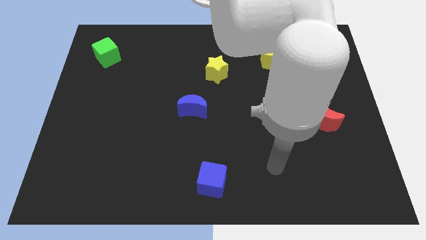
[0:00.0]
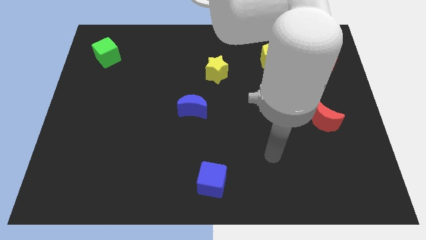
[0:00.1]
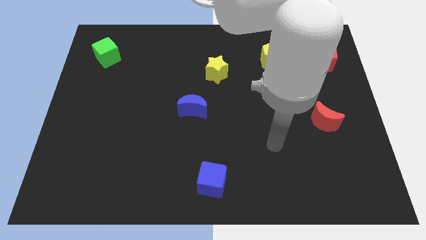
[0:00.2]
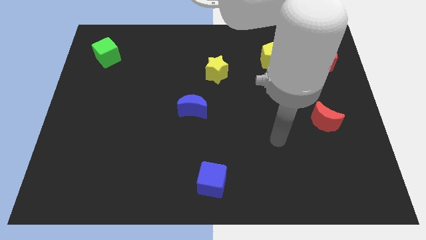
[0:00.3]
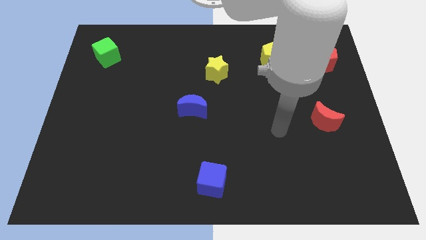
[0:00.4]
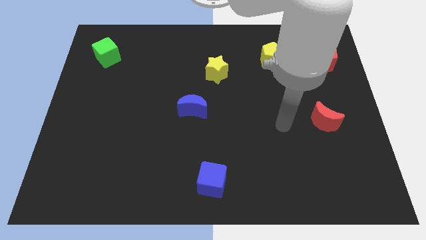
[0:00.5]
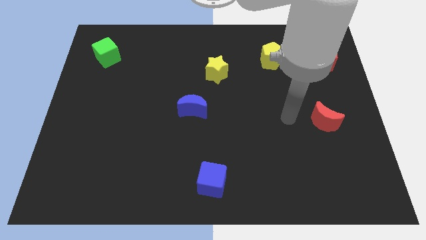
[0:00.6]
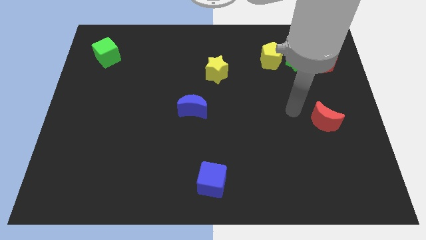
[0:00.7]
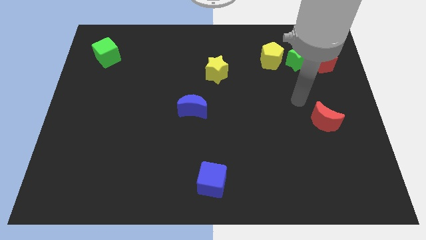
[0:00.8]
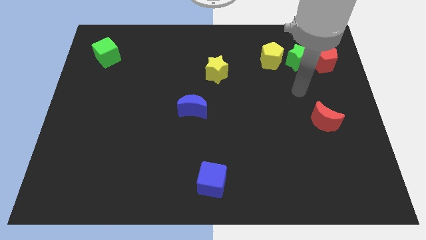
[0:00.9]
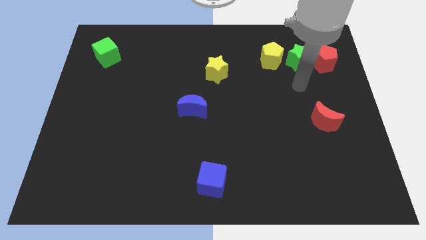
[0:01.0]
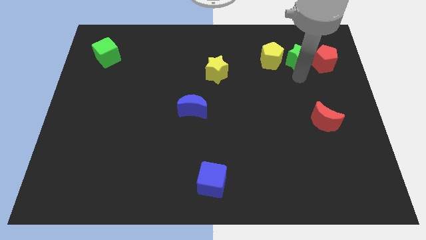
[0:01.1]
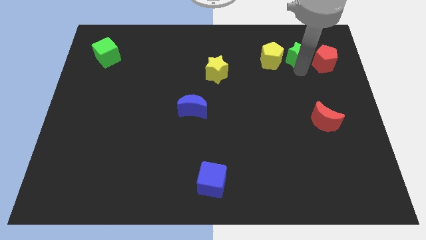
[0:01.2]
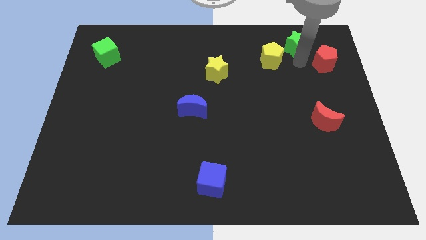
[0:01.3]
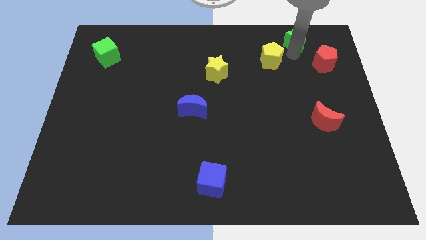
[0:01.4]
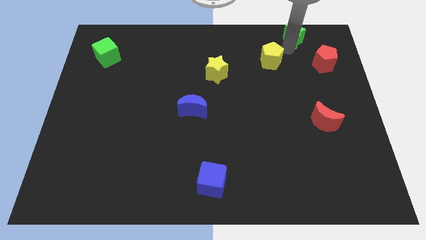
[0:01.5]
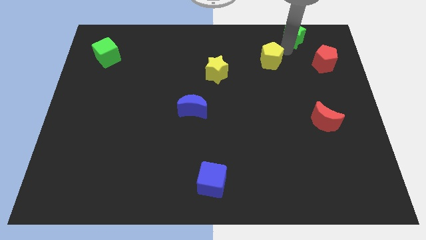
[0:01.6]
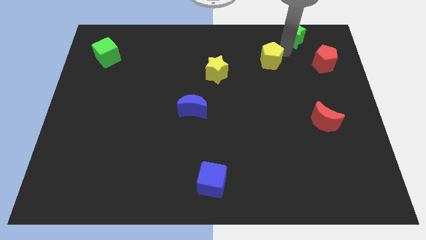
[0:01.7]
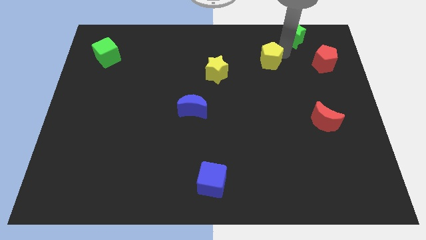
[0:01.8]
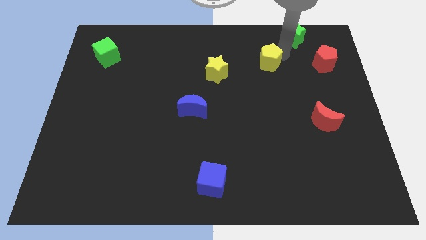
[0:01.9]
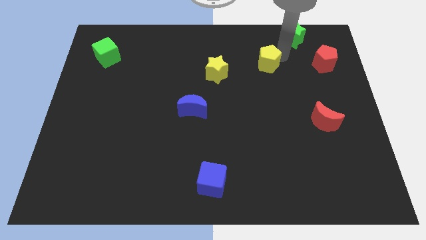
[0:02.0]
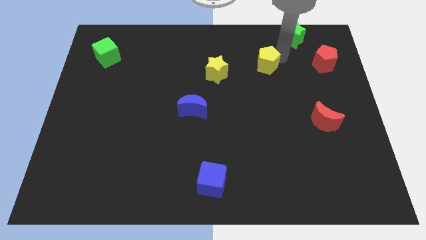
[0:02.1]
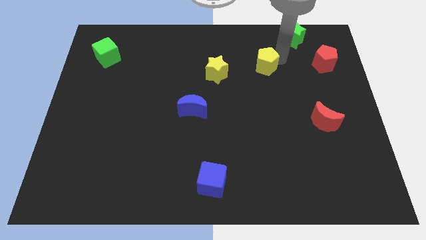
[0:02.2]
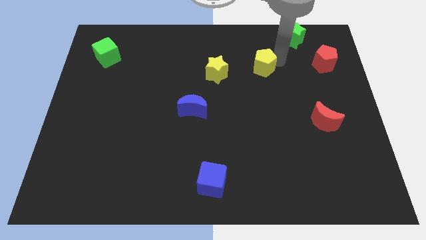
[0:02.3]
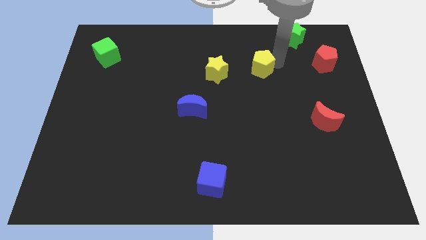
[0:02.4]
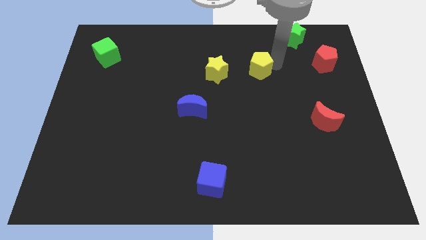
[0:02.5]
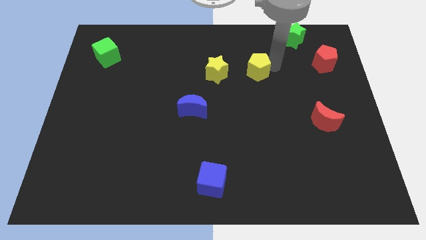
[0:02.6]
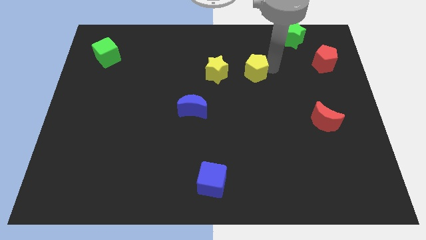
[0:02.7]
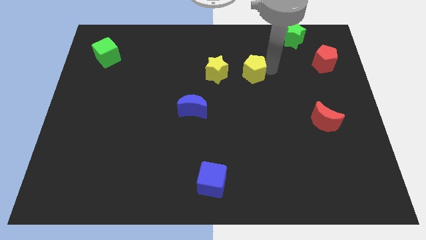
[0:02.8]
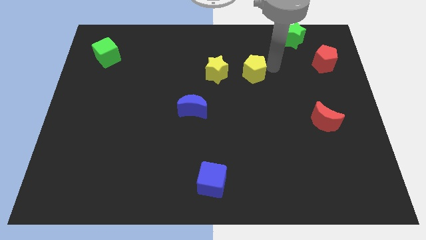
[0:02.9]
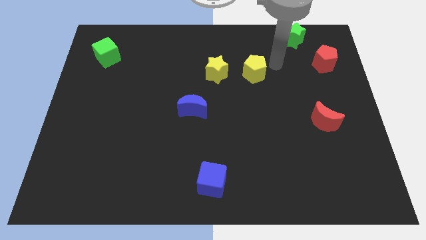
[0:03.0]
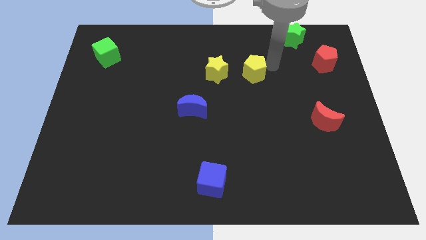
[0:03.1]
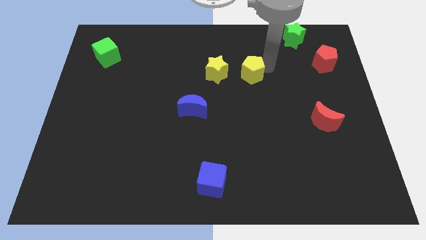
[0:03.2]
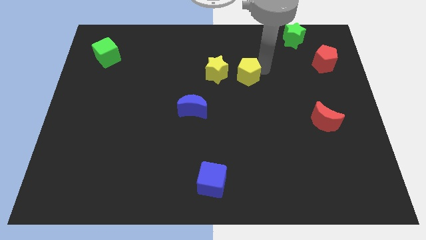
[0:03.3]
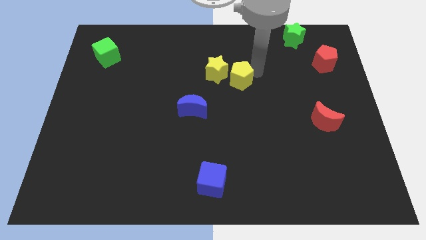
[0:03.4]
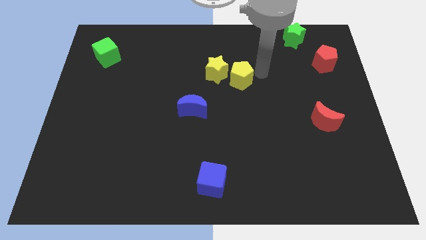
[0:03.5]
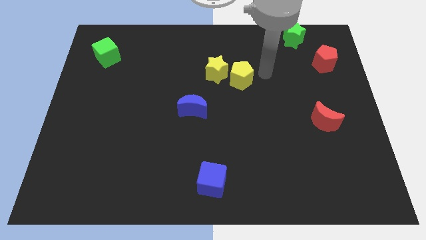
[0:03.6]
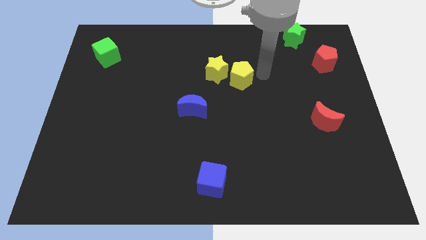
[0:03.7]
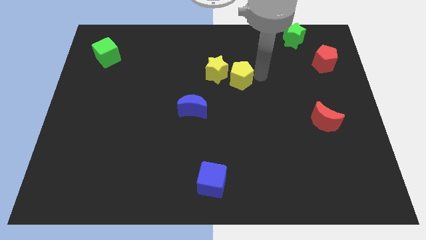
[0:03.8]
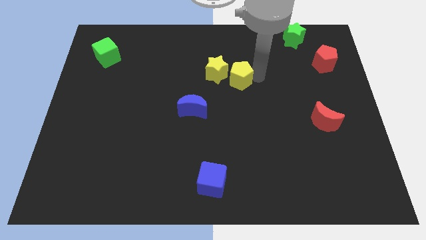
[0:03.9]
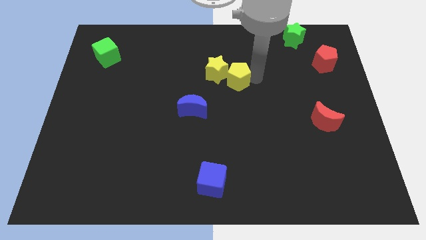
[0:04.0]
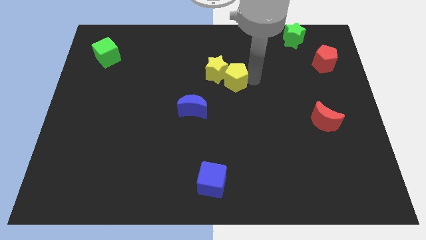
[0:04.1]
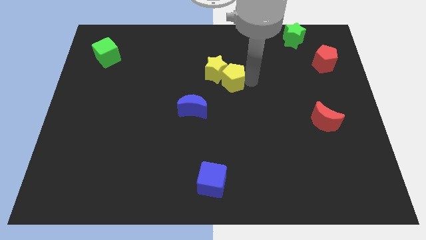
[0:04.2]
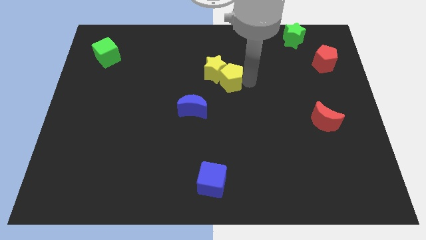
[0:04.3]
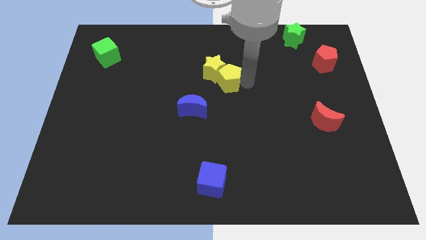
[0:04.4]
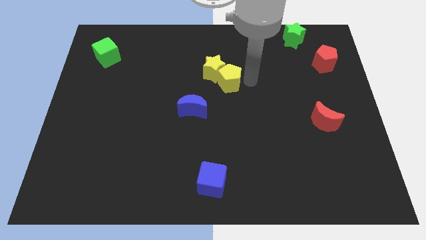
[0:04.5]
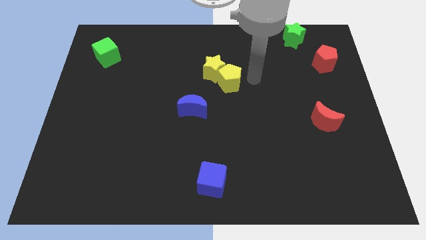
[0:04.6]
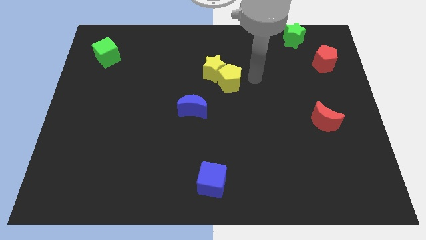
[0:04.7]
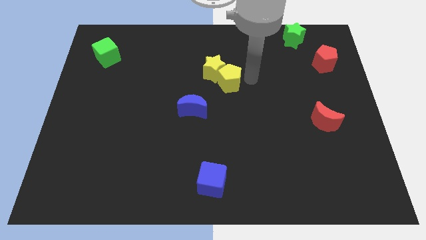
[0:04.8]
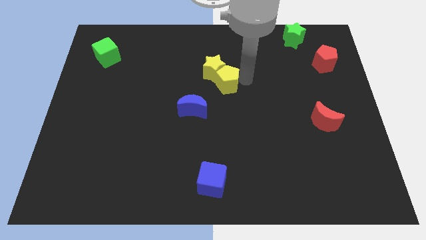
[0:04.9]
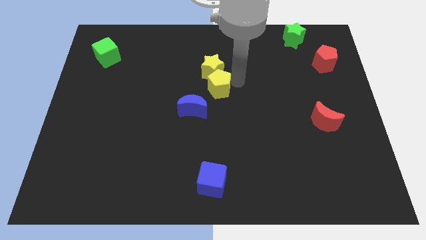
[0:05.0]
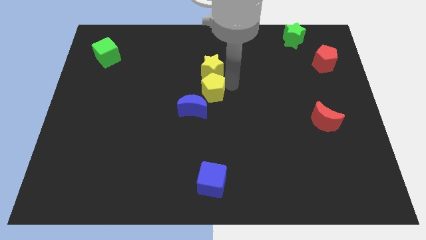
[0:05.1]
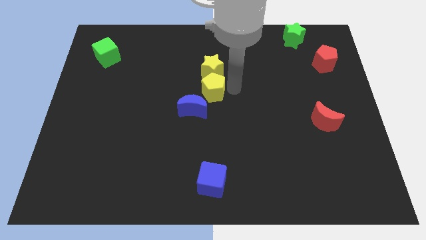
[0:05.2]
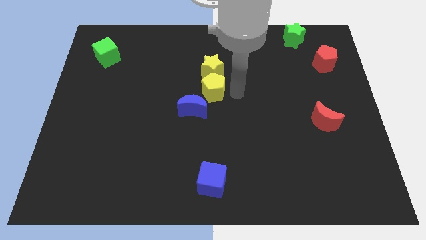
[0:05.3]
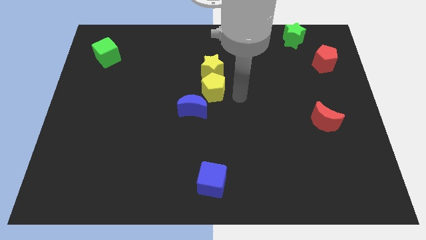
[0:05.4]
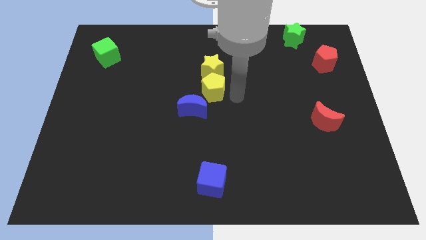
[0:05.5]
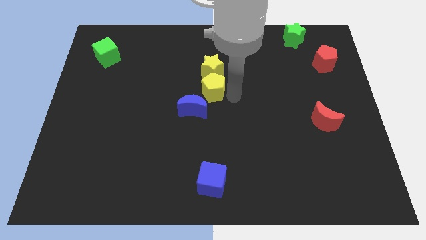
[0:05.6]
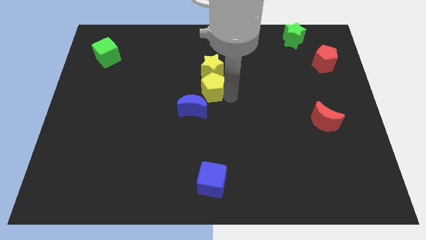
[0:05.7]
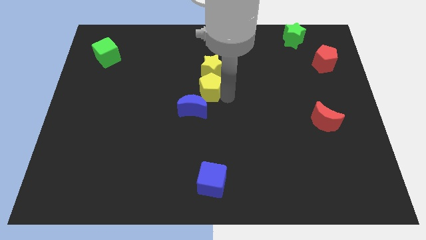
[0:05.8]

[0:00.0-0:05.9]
move the yellow pentagon diagonally down and to the left of the yellow star

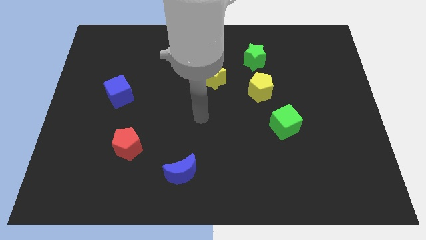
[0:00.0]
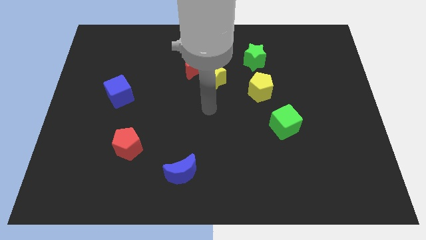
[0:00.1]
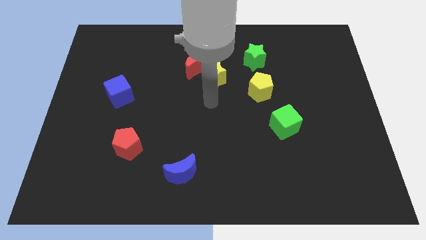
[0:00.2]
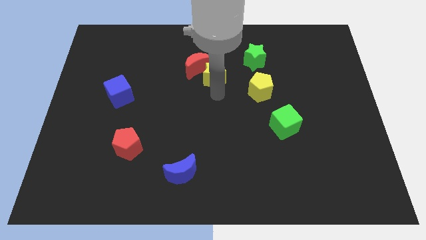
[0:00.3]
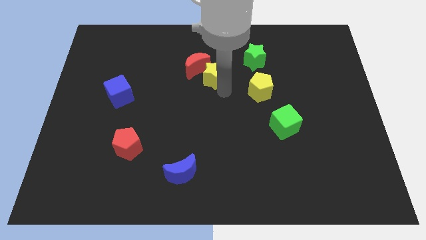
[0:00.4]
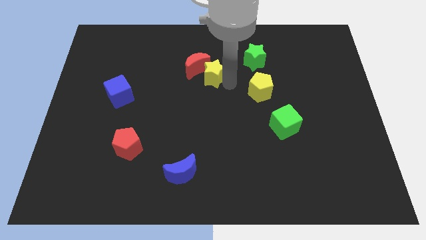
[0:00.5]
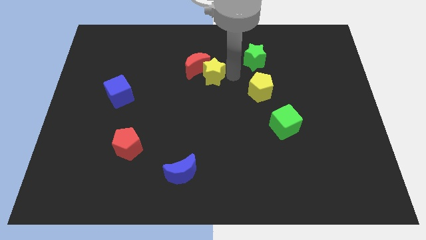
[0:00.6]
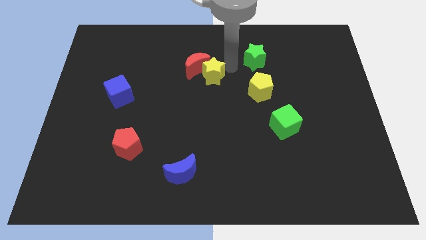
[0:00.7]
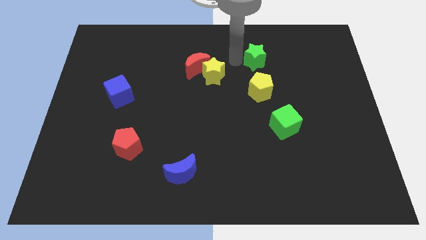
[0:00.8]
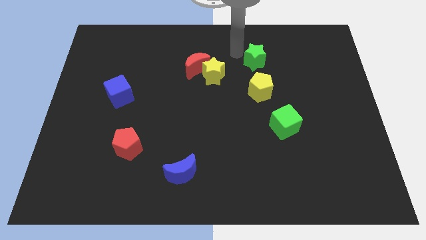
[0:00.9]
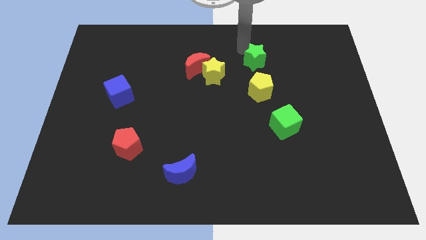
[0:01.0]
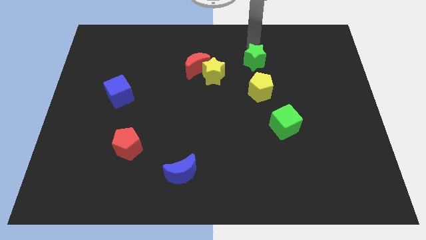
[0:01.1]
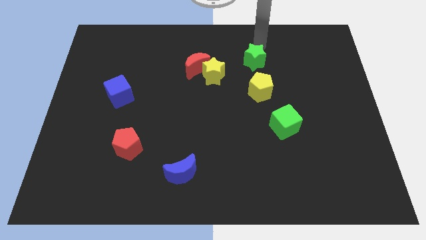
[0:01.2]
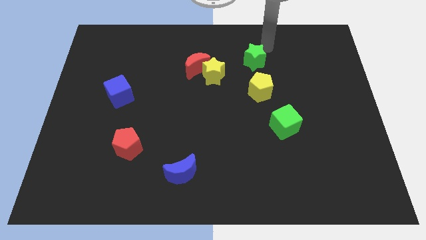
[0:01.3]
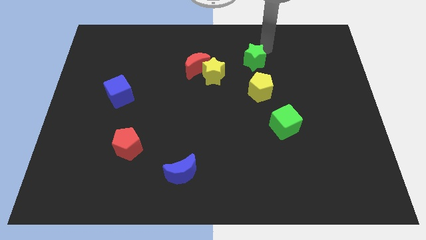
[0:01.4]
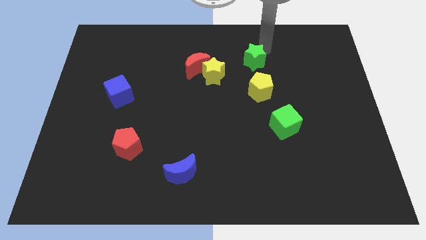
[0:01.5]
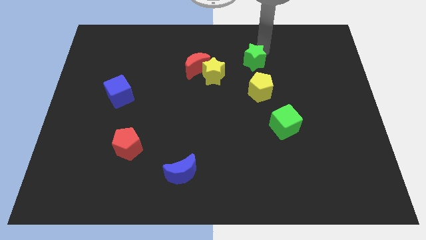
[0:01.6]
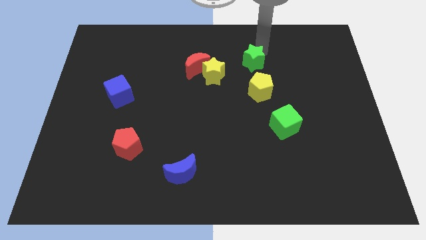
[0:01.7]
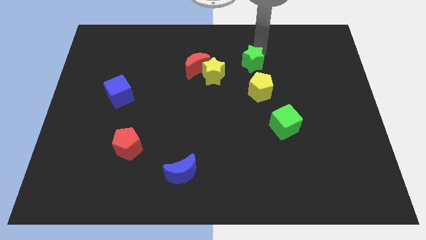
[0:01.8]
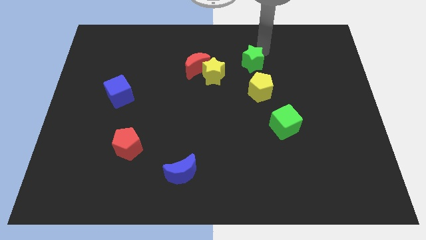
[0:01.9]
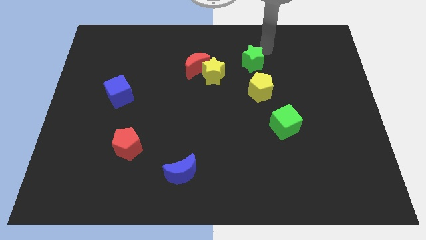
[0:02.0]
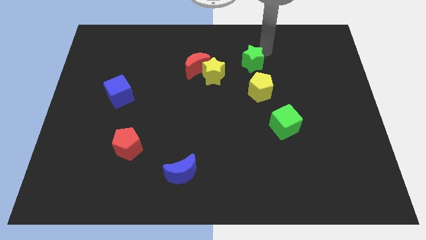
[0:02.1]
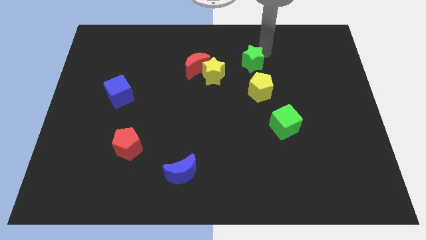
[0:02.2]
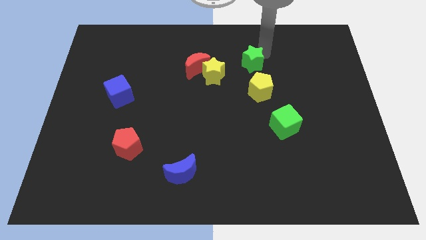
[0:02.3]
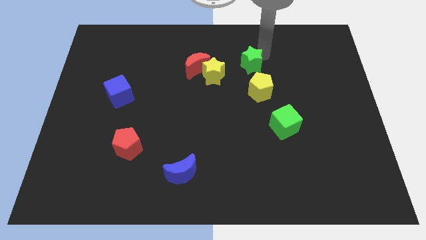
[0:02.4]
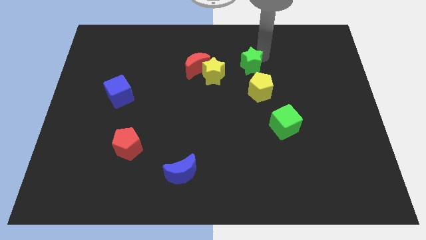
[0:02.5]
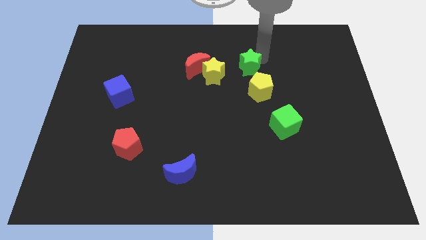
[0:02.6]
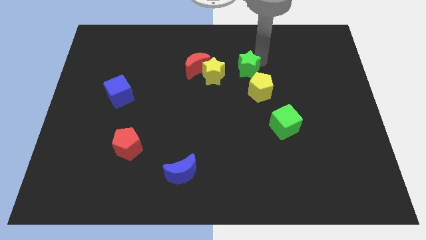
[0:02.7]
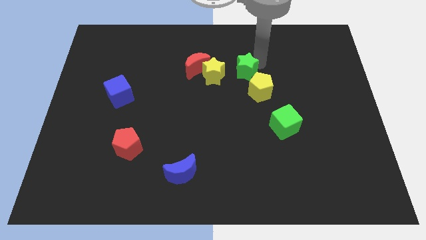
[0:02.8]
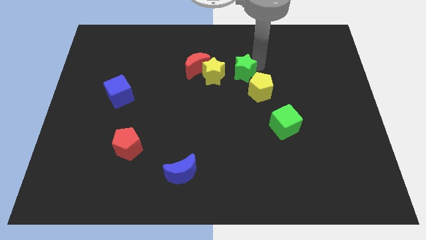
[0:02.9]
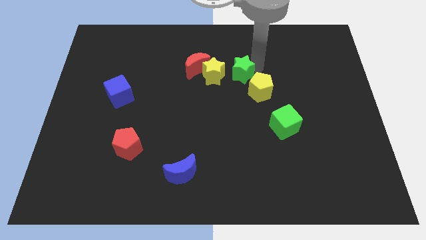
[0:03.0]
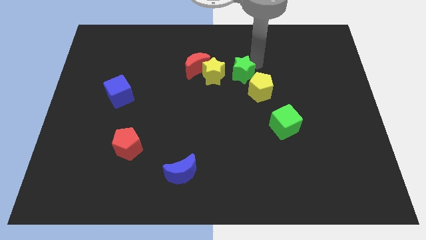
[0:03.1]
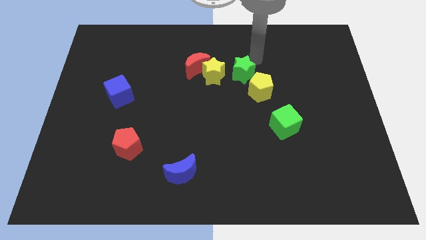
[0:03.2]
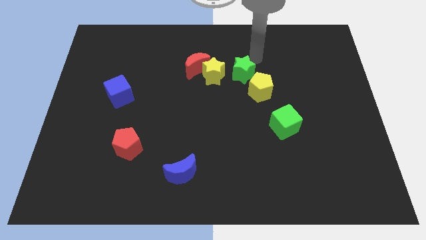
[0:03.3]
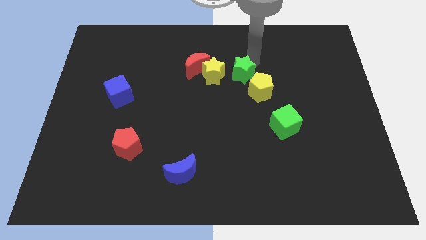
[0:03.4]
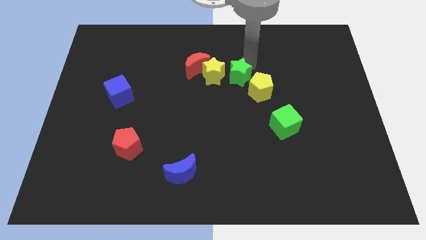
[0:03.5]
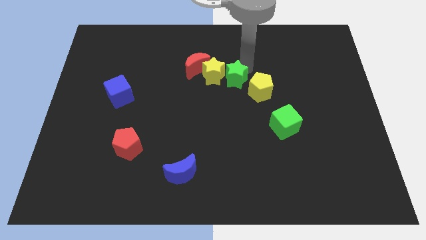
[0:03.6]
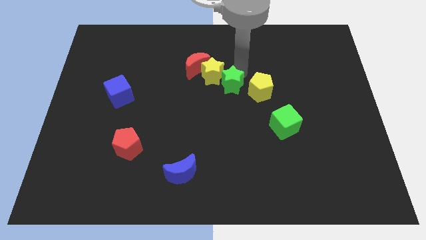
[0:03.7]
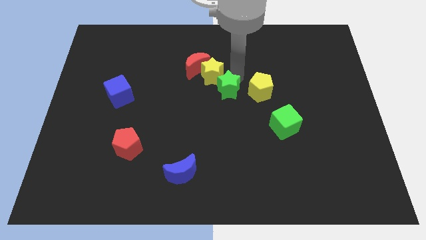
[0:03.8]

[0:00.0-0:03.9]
push the green star to the bottom side of the yellow star
